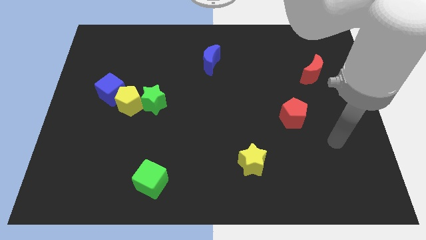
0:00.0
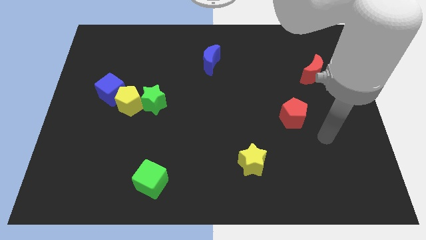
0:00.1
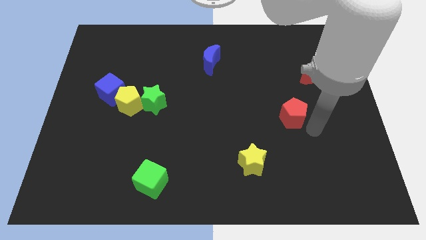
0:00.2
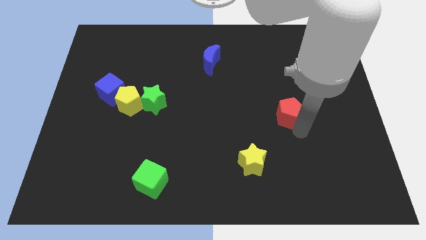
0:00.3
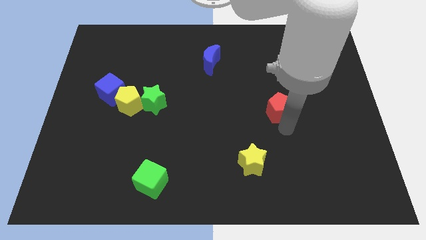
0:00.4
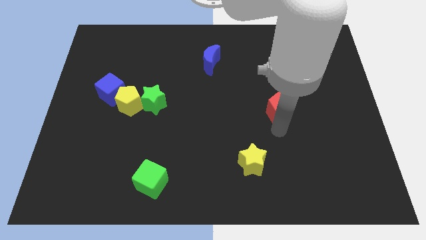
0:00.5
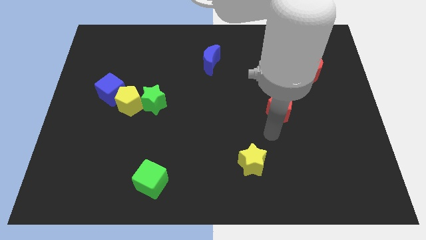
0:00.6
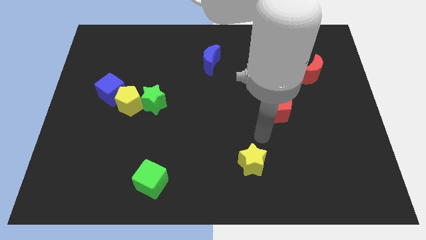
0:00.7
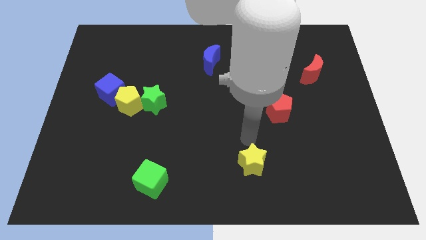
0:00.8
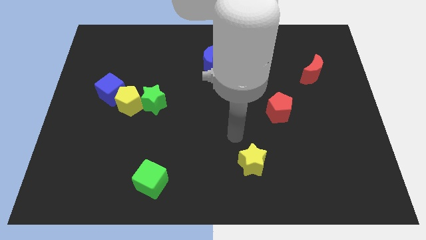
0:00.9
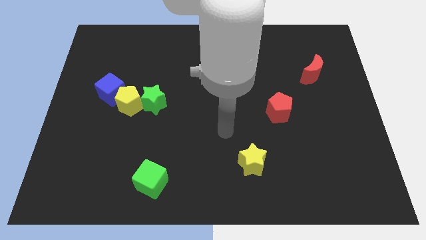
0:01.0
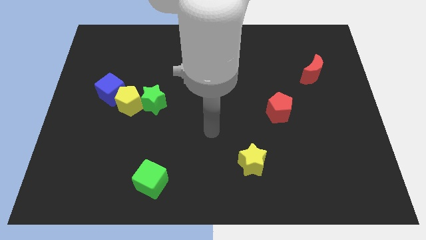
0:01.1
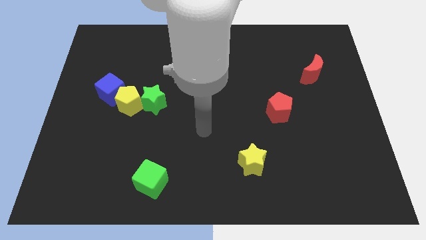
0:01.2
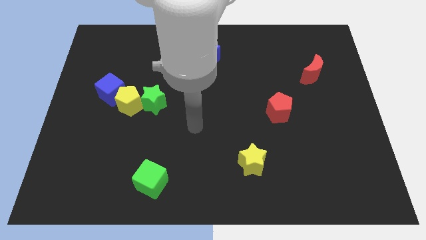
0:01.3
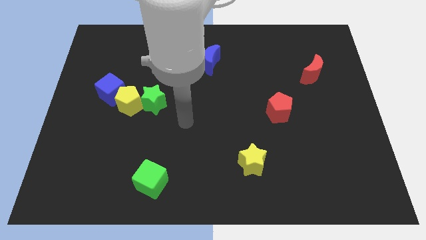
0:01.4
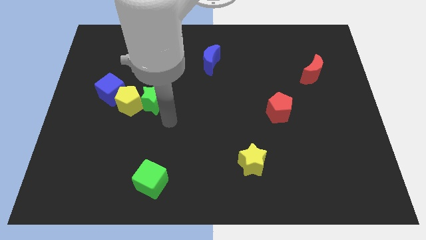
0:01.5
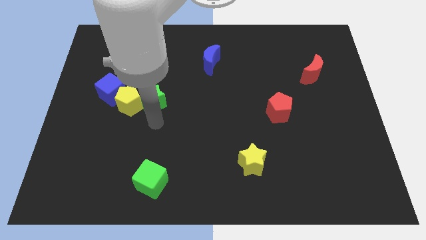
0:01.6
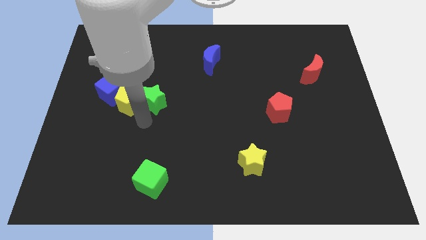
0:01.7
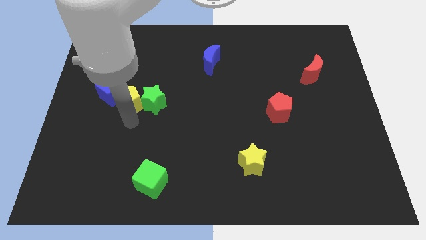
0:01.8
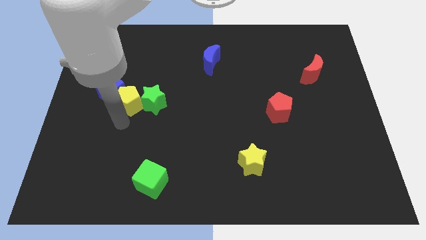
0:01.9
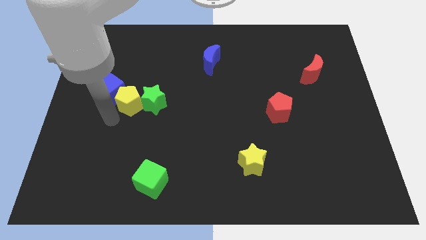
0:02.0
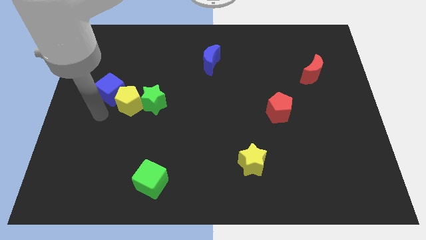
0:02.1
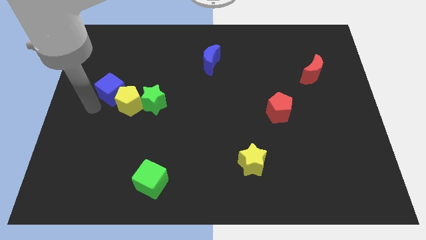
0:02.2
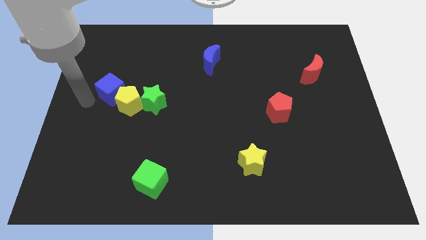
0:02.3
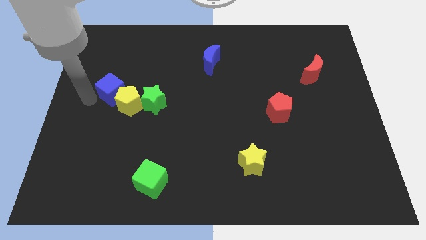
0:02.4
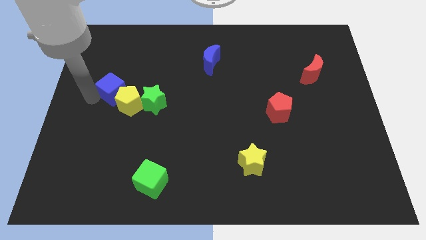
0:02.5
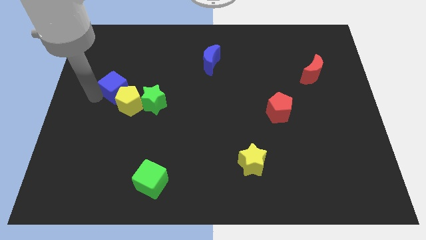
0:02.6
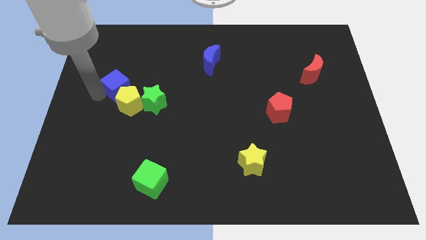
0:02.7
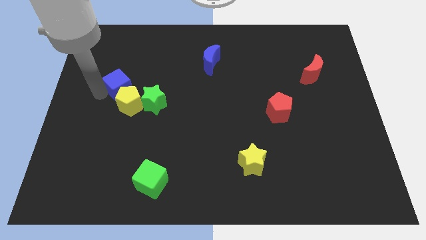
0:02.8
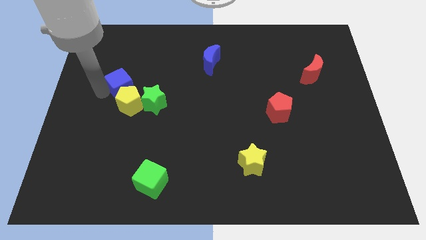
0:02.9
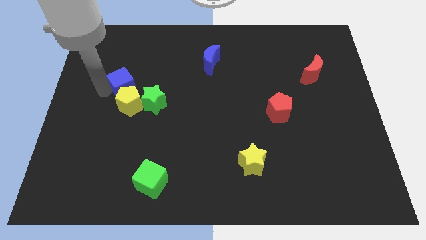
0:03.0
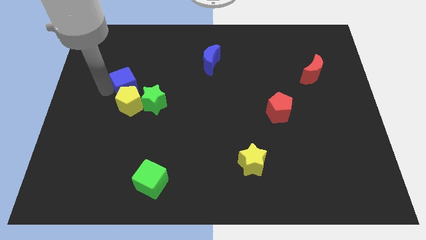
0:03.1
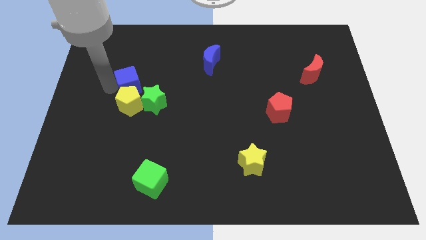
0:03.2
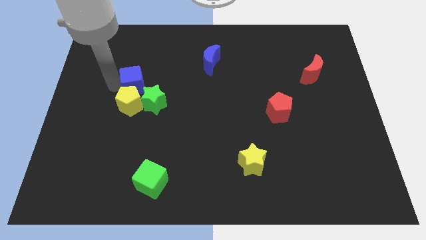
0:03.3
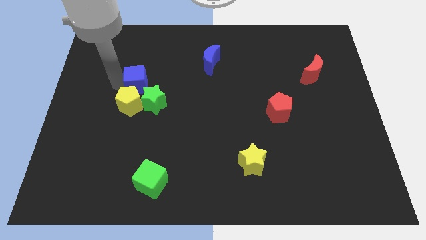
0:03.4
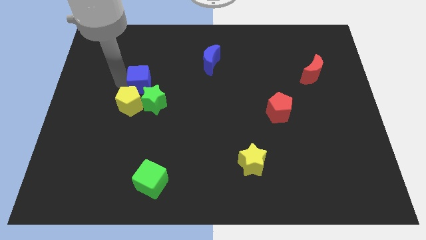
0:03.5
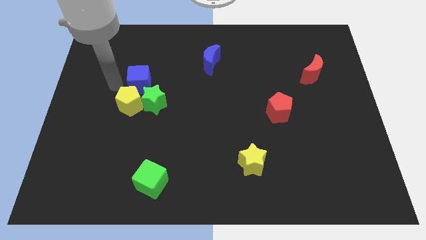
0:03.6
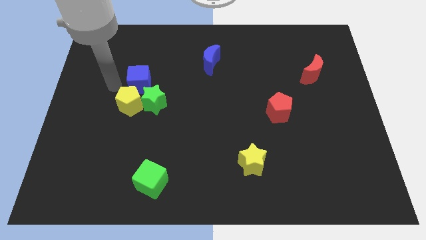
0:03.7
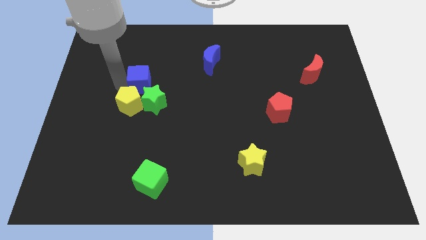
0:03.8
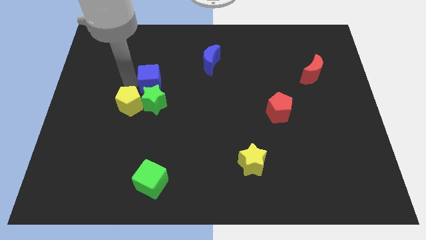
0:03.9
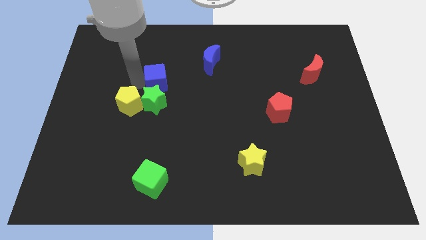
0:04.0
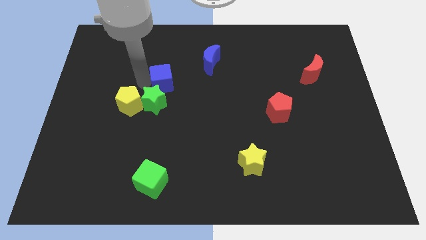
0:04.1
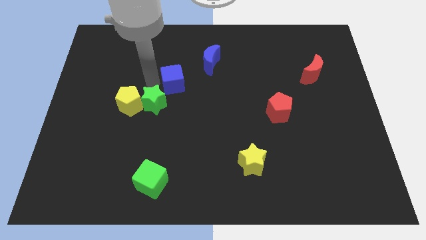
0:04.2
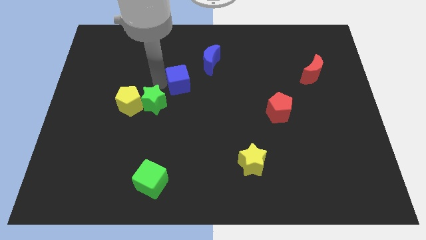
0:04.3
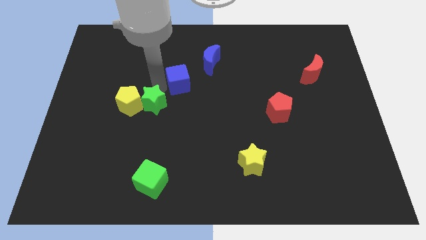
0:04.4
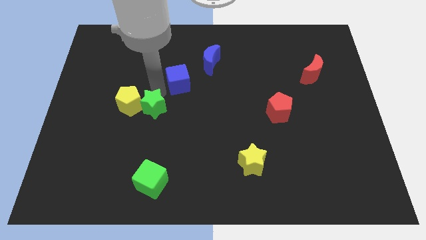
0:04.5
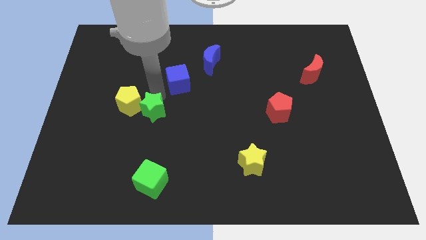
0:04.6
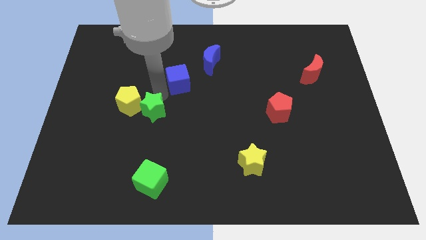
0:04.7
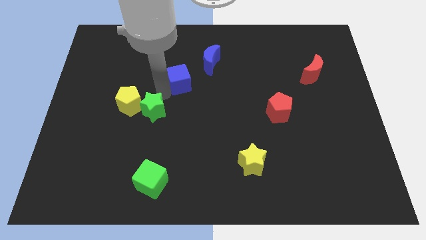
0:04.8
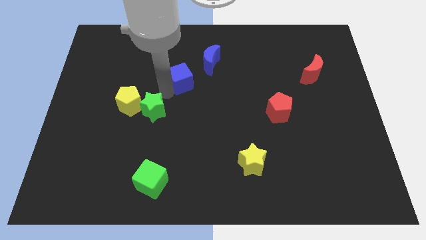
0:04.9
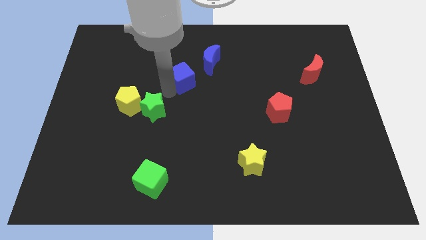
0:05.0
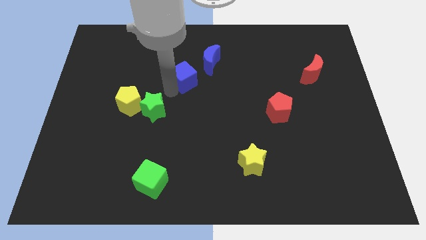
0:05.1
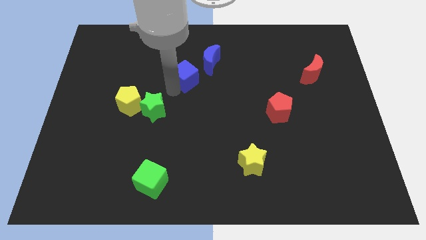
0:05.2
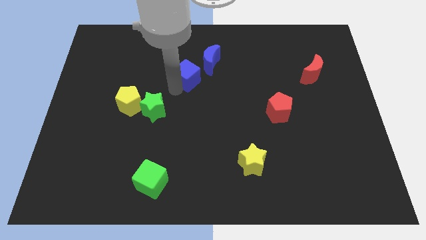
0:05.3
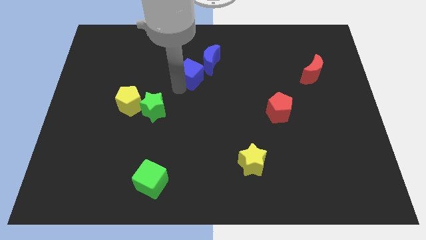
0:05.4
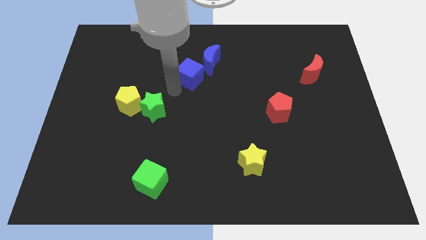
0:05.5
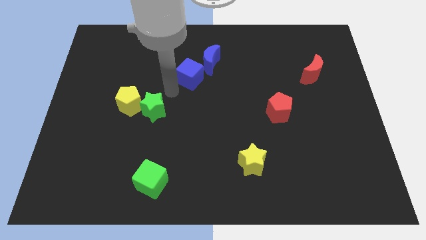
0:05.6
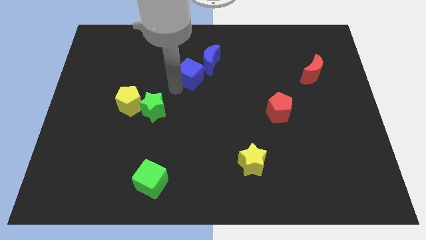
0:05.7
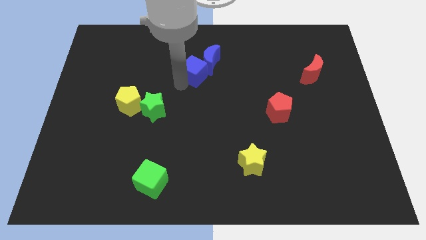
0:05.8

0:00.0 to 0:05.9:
slide the blue cube to the blue moon

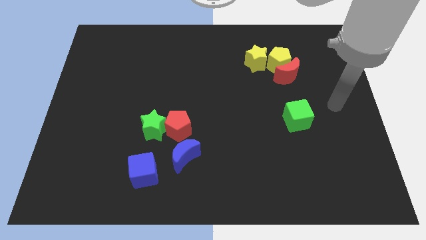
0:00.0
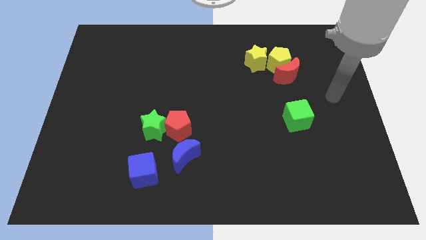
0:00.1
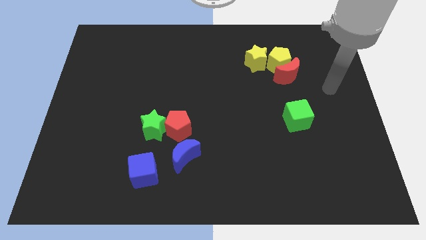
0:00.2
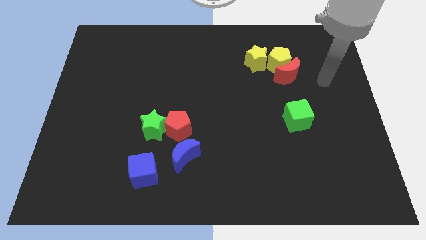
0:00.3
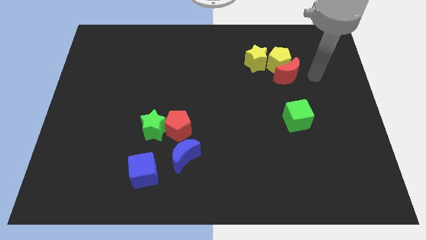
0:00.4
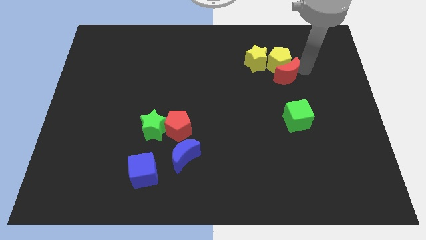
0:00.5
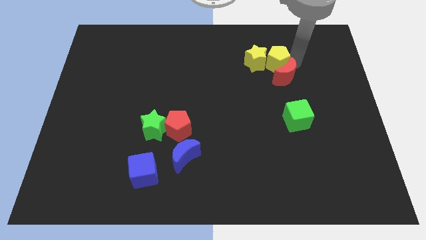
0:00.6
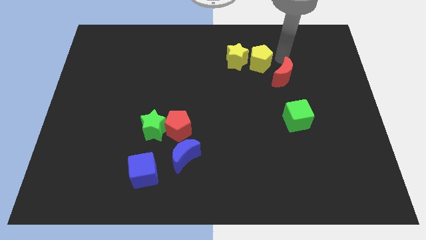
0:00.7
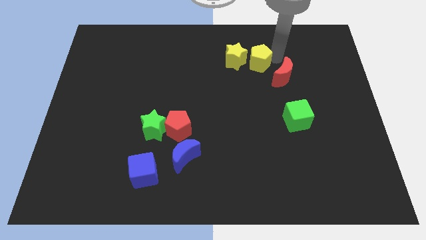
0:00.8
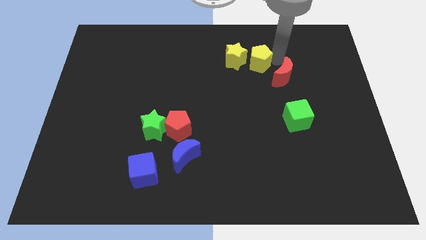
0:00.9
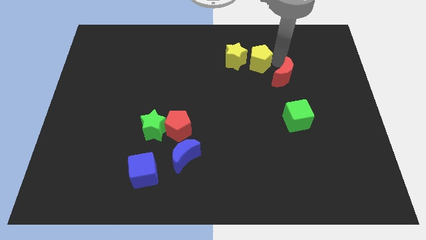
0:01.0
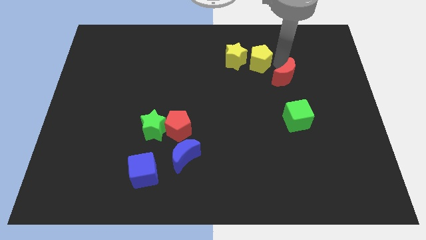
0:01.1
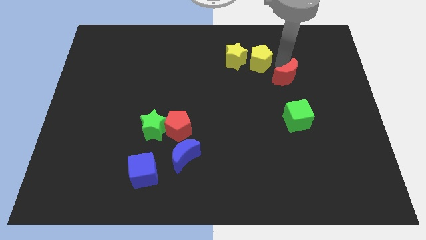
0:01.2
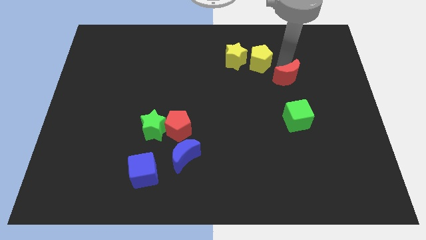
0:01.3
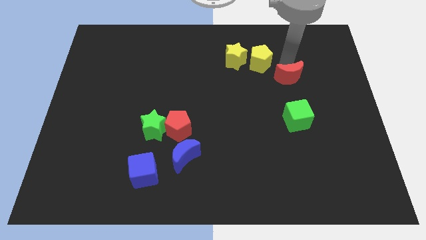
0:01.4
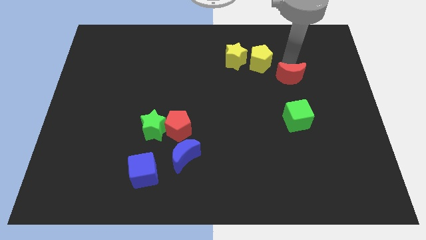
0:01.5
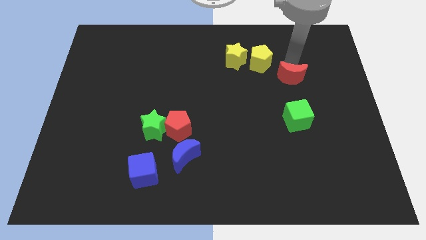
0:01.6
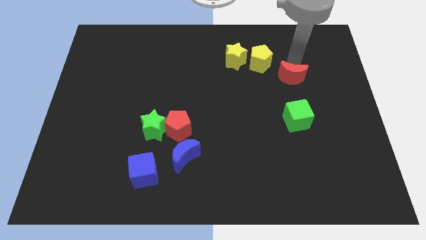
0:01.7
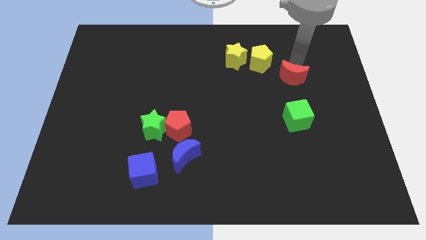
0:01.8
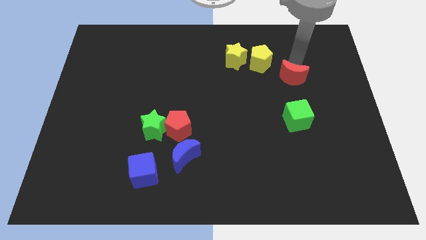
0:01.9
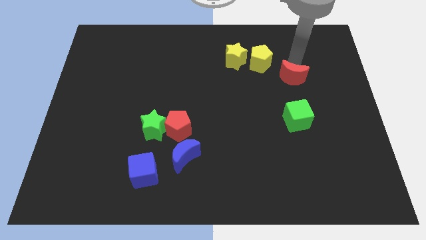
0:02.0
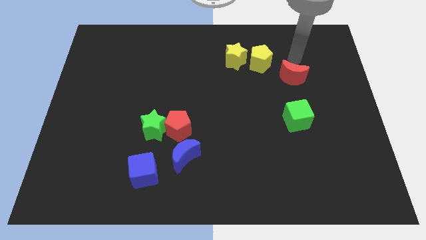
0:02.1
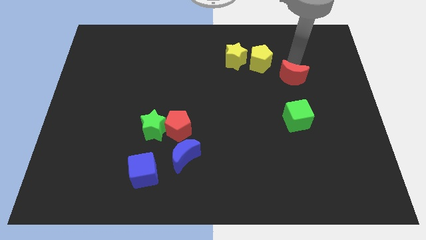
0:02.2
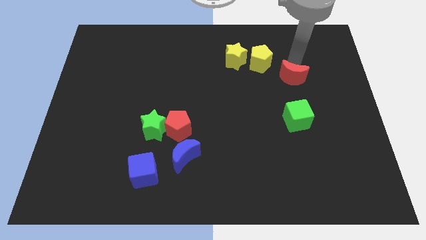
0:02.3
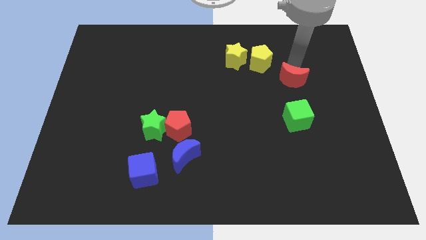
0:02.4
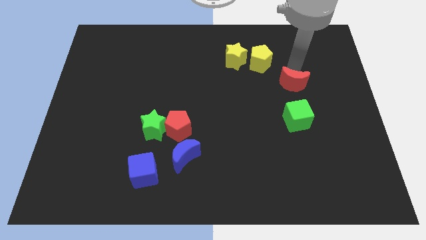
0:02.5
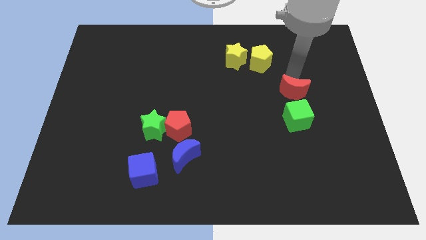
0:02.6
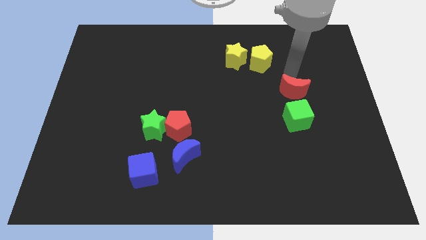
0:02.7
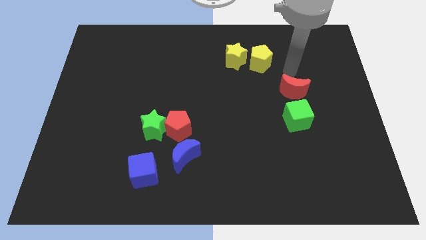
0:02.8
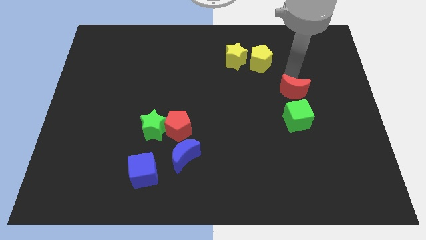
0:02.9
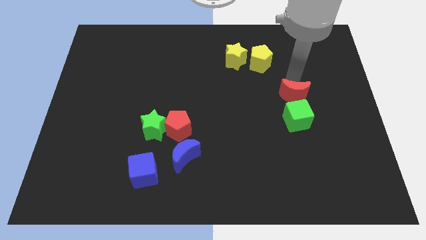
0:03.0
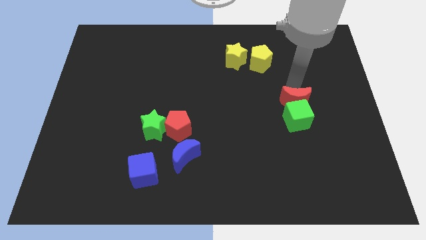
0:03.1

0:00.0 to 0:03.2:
put the red moon close to the green cube
